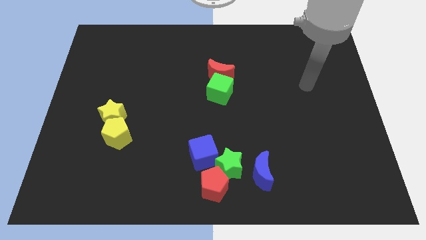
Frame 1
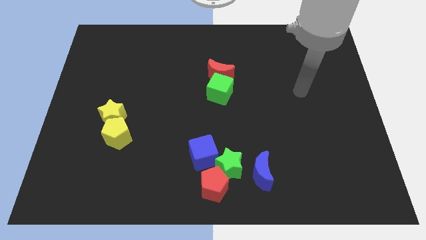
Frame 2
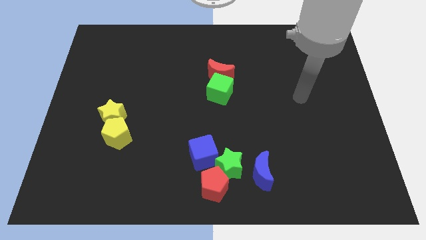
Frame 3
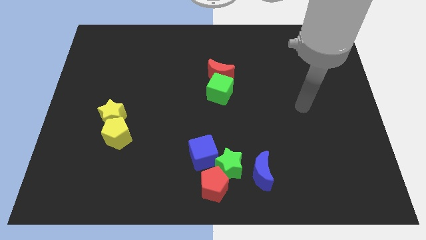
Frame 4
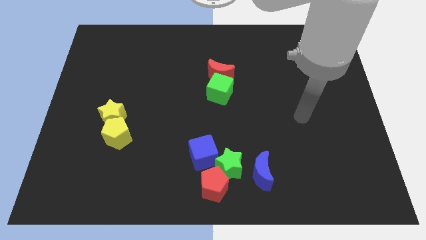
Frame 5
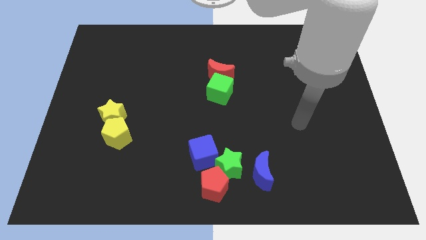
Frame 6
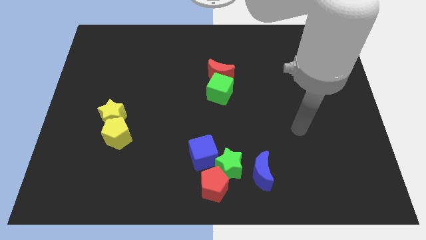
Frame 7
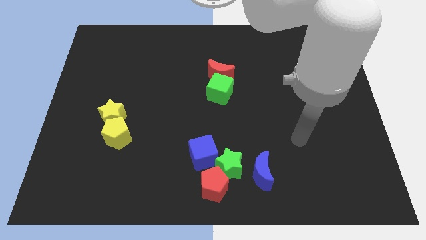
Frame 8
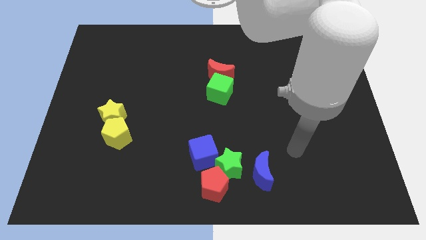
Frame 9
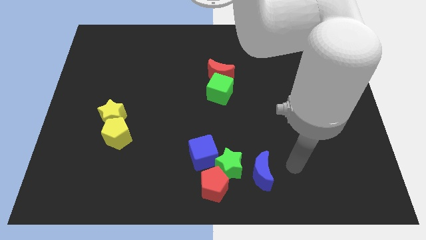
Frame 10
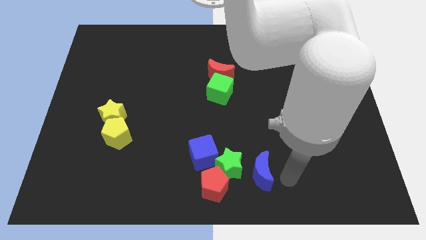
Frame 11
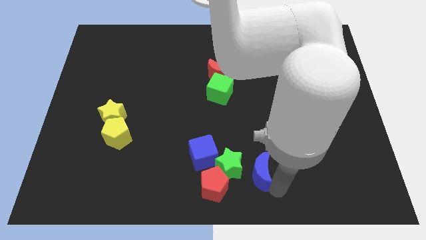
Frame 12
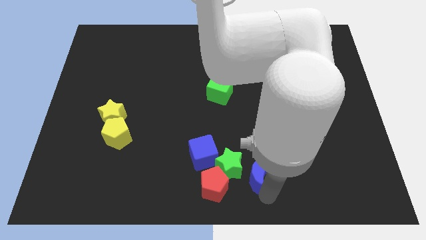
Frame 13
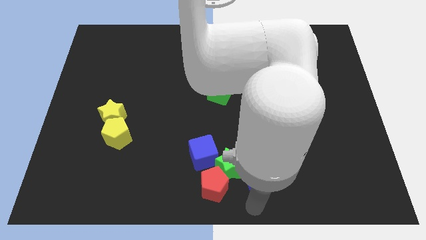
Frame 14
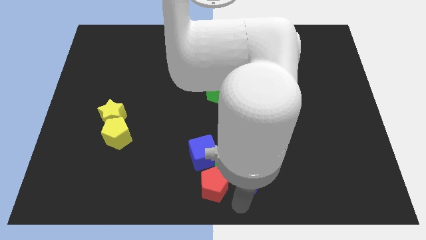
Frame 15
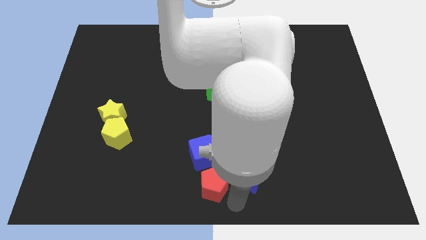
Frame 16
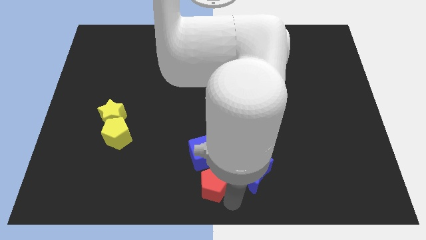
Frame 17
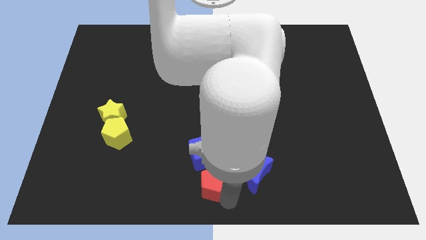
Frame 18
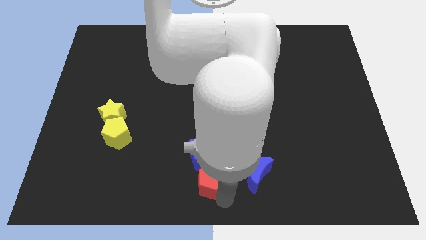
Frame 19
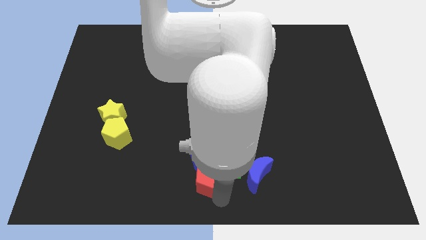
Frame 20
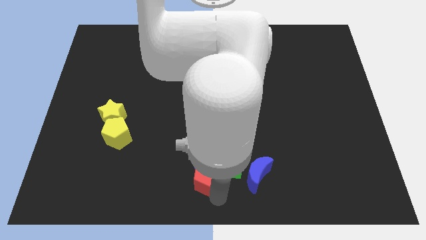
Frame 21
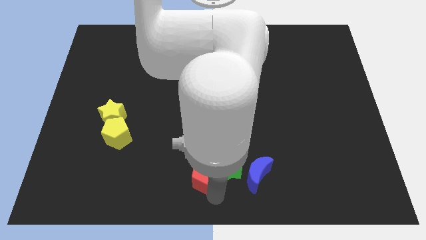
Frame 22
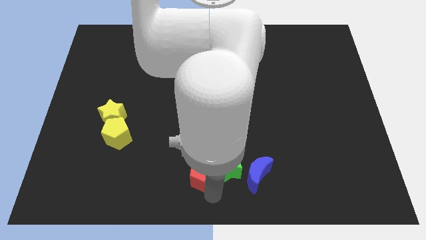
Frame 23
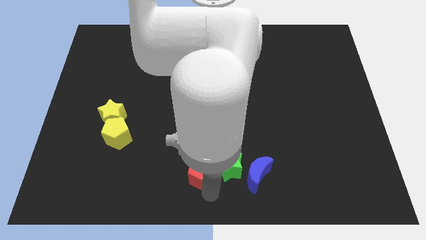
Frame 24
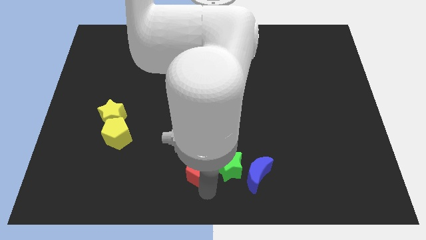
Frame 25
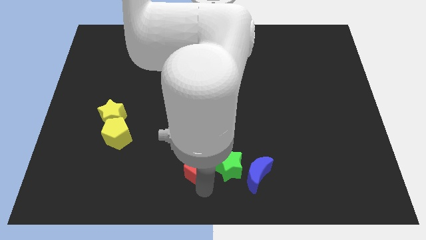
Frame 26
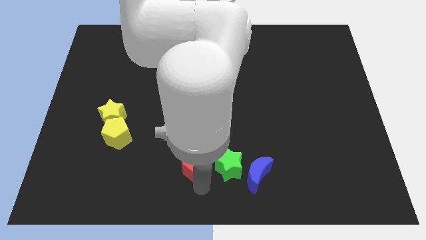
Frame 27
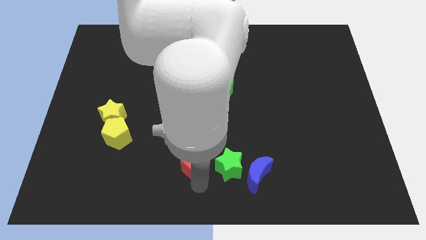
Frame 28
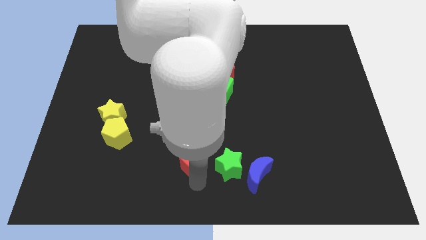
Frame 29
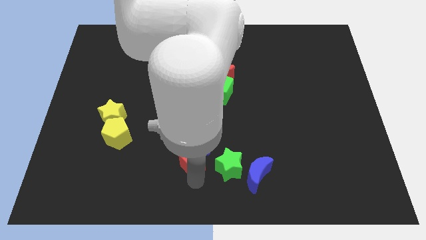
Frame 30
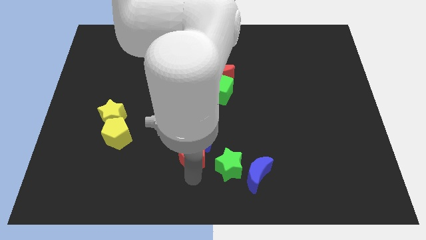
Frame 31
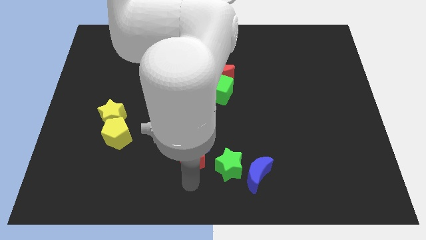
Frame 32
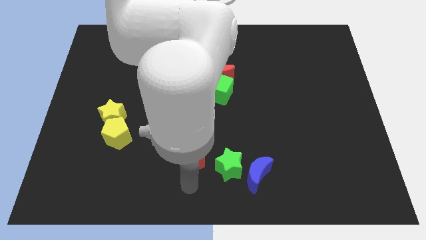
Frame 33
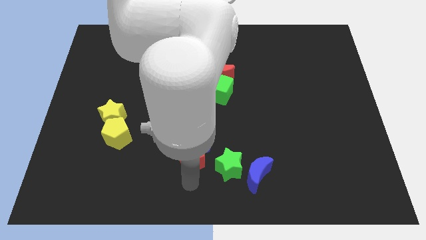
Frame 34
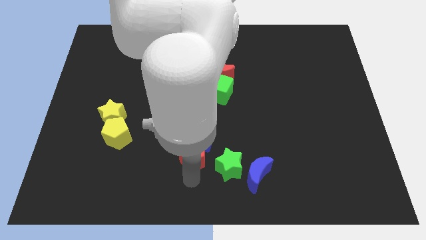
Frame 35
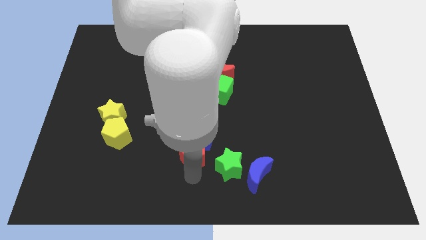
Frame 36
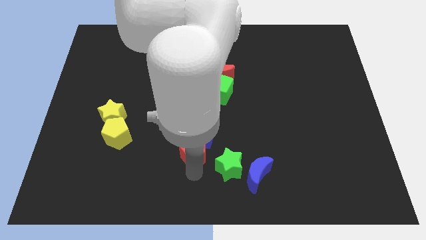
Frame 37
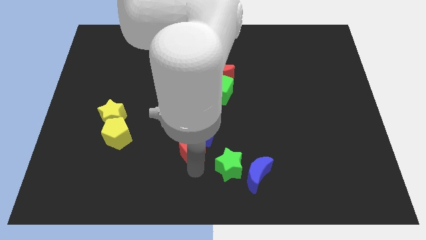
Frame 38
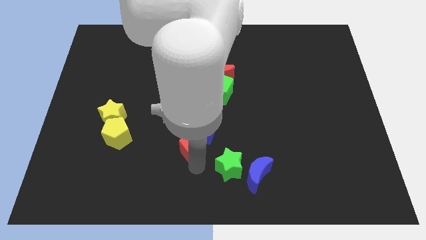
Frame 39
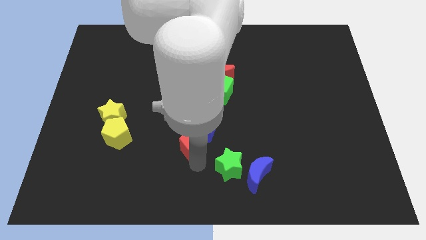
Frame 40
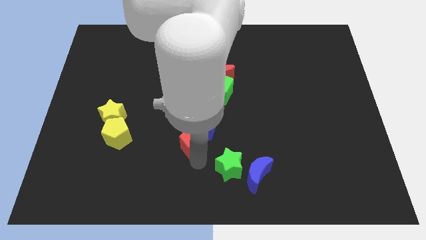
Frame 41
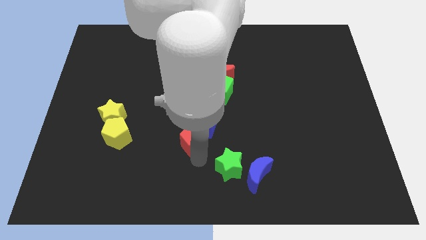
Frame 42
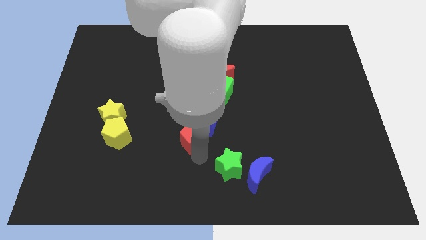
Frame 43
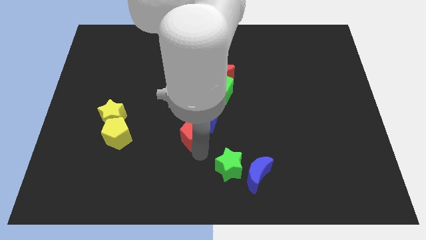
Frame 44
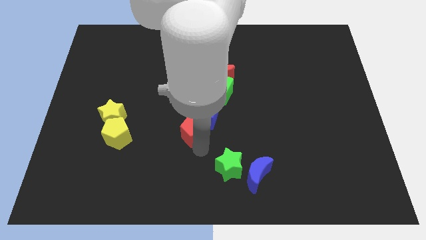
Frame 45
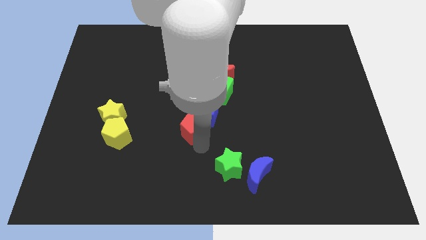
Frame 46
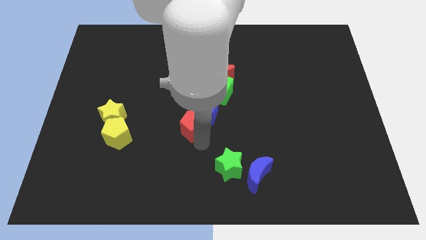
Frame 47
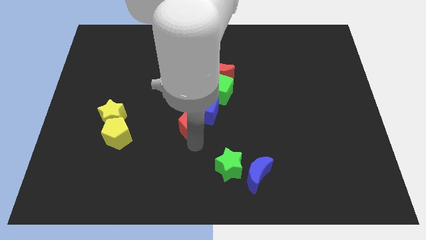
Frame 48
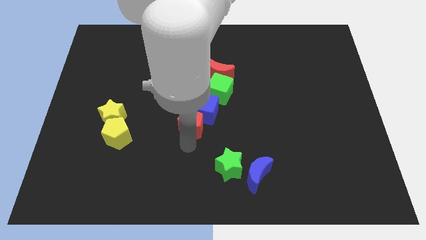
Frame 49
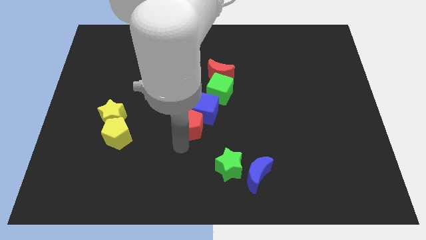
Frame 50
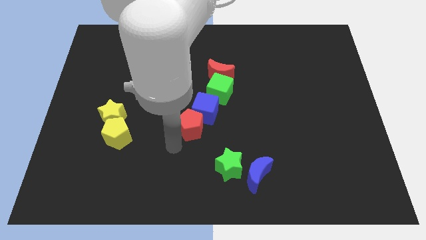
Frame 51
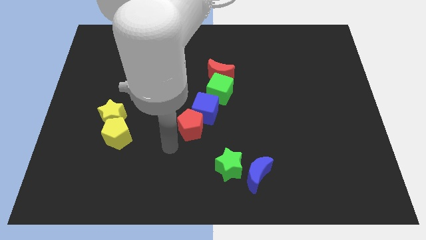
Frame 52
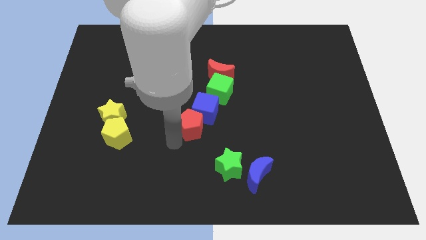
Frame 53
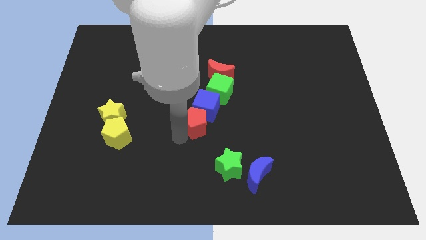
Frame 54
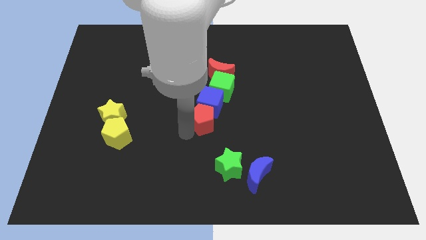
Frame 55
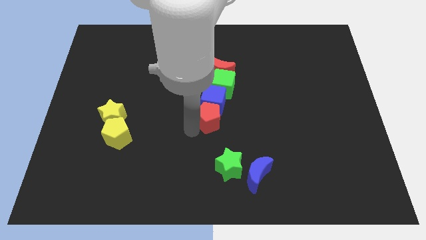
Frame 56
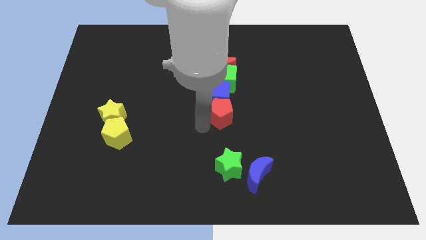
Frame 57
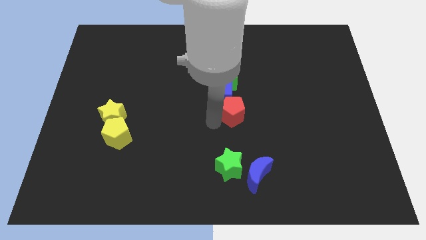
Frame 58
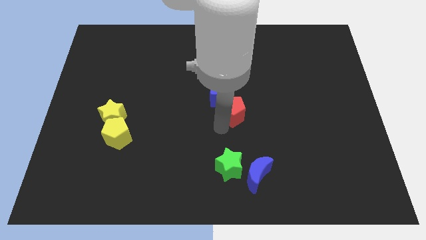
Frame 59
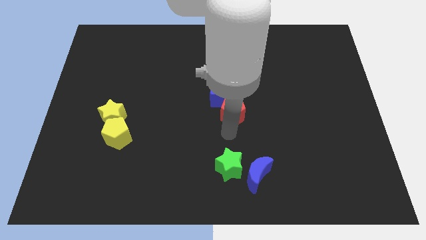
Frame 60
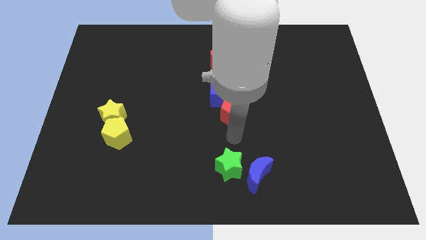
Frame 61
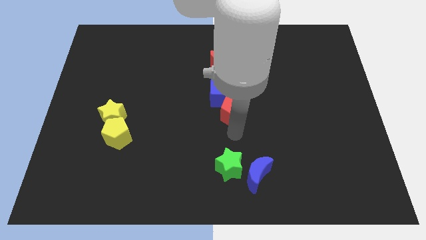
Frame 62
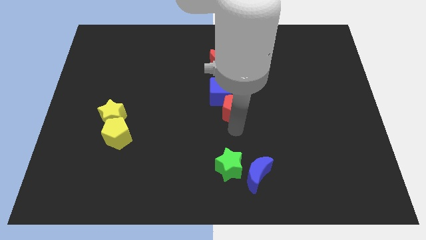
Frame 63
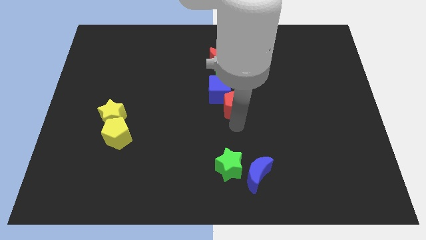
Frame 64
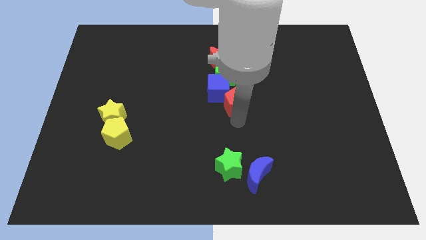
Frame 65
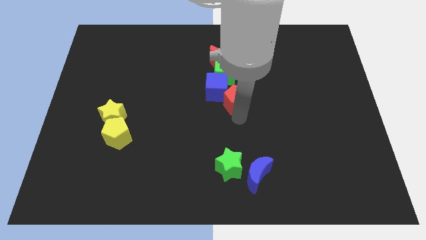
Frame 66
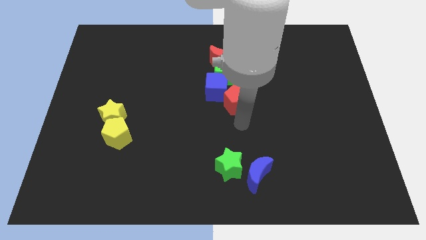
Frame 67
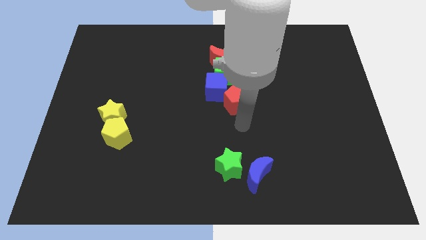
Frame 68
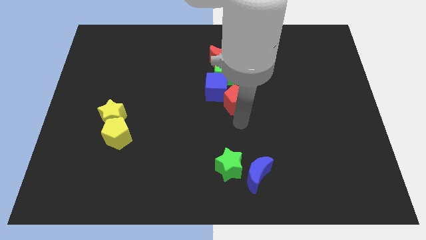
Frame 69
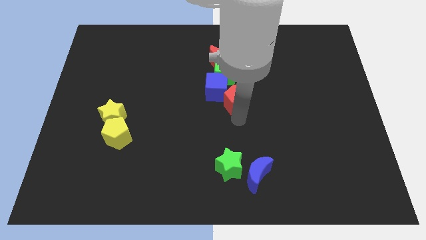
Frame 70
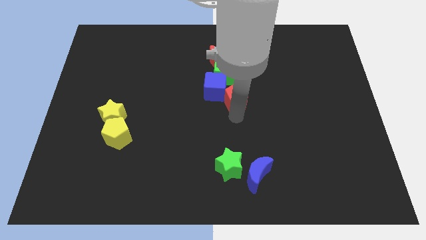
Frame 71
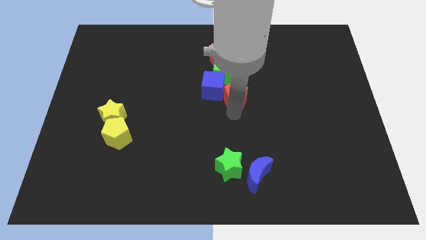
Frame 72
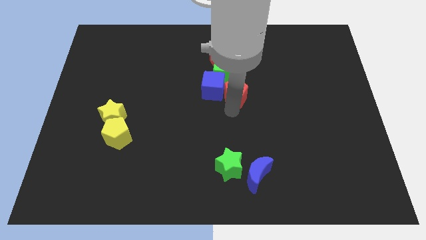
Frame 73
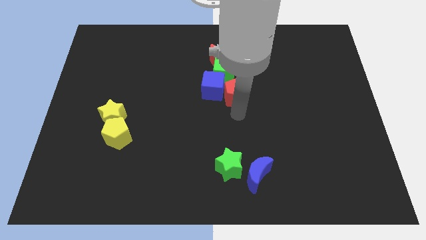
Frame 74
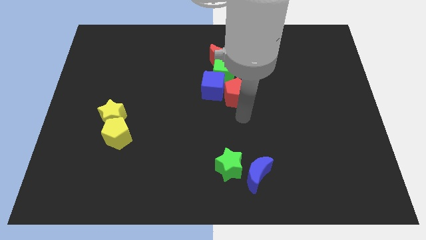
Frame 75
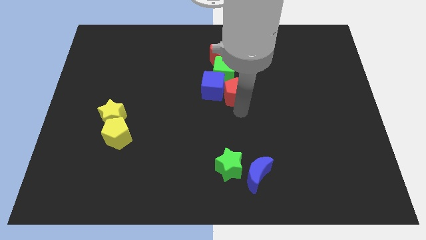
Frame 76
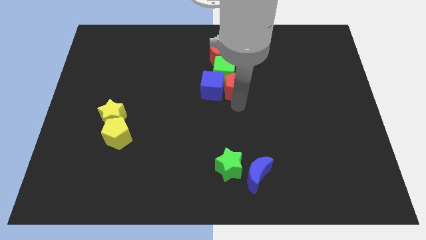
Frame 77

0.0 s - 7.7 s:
slide the red pentagon close to the green cube
